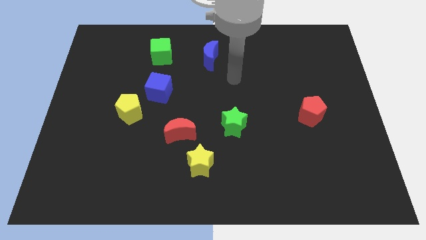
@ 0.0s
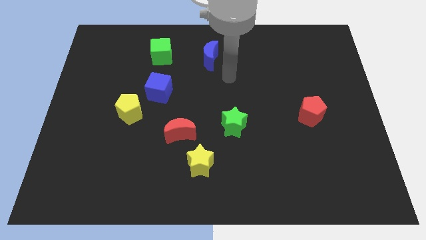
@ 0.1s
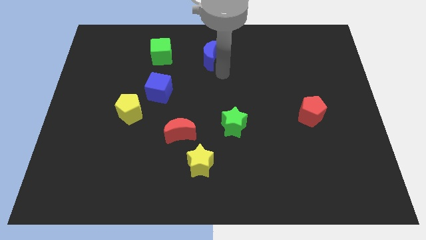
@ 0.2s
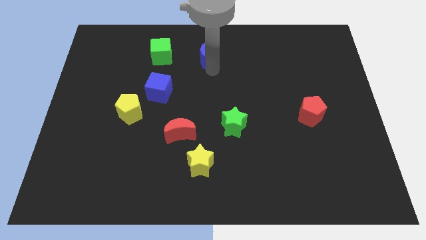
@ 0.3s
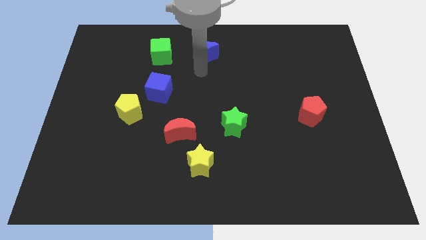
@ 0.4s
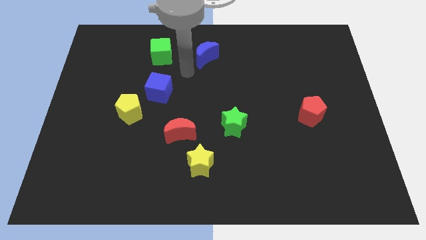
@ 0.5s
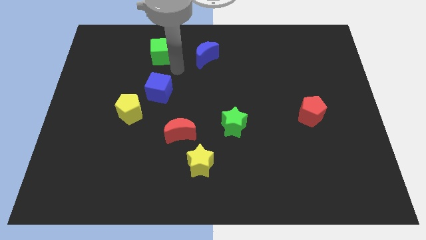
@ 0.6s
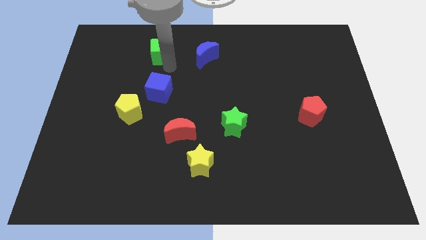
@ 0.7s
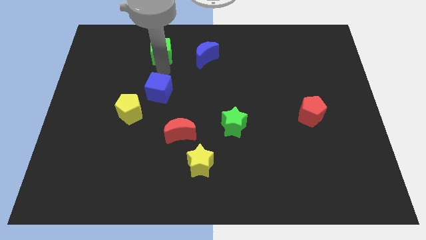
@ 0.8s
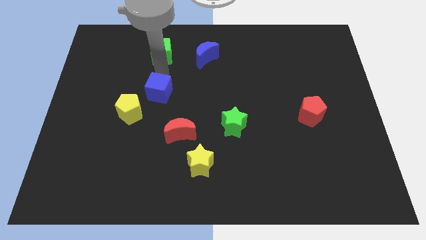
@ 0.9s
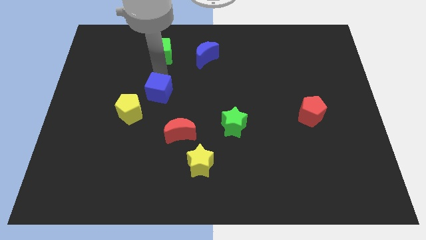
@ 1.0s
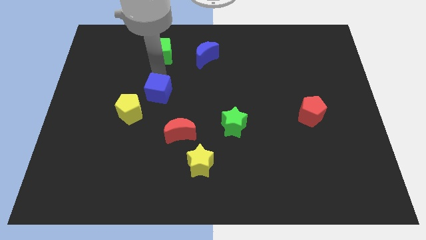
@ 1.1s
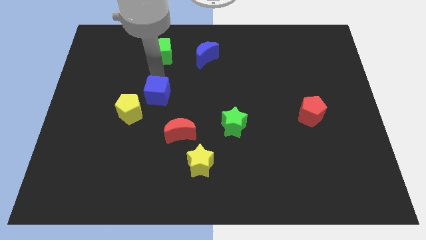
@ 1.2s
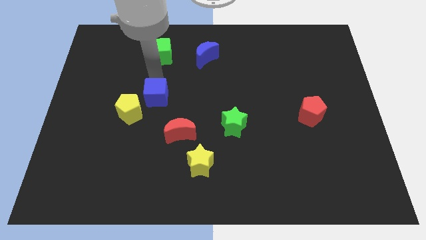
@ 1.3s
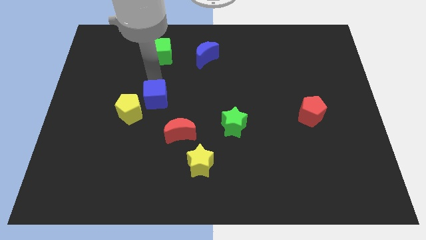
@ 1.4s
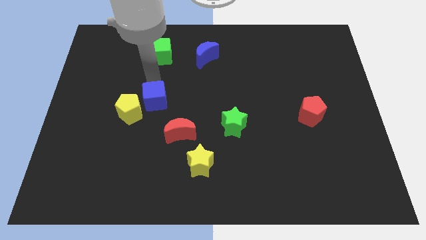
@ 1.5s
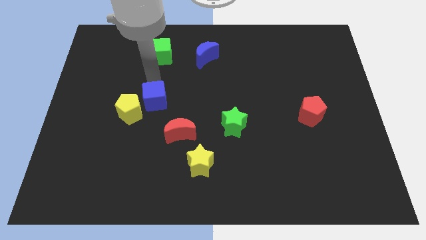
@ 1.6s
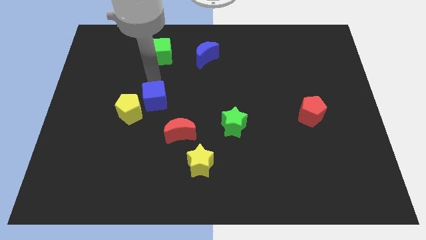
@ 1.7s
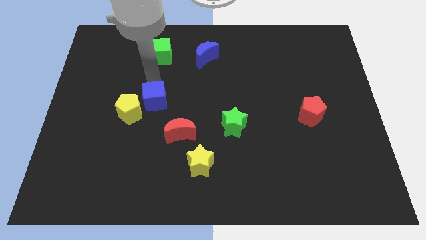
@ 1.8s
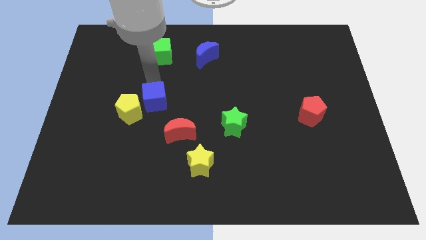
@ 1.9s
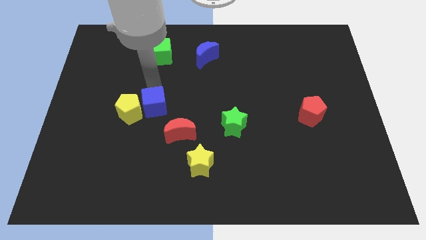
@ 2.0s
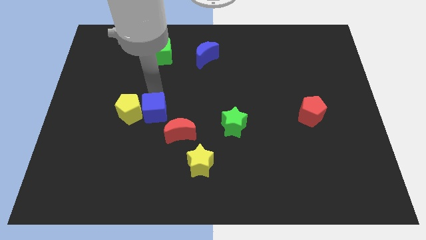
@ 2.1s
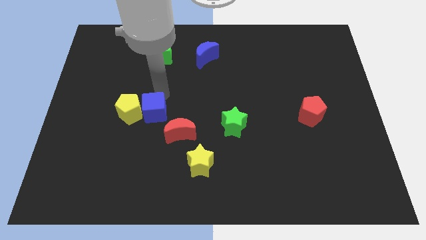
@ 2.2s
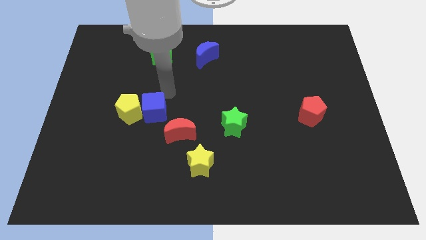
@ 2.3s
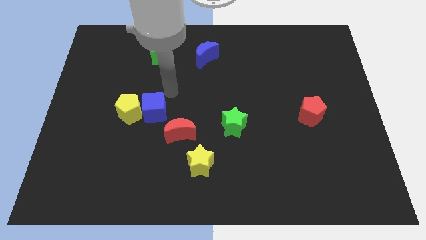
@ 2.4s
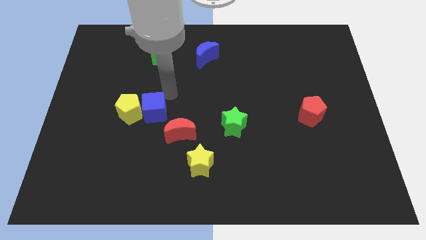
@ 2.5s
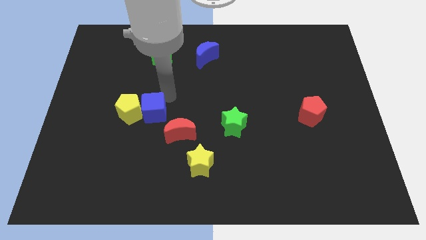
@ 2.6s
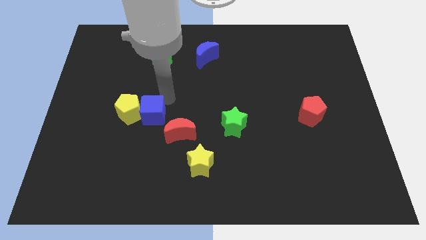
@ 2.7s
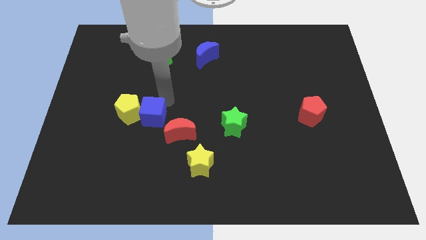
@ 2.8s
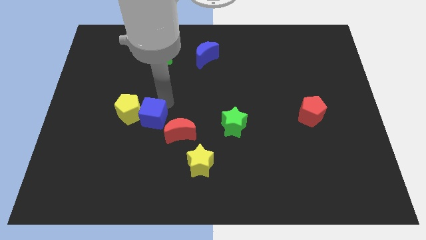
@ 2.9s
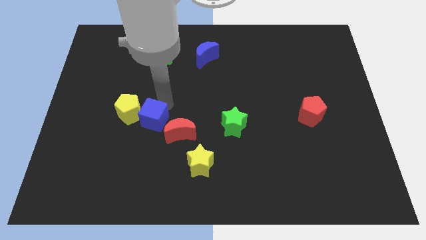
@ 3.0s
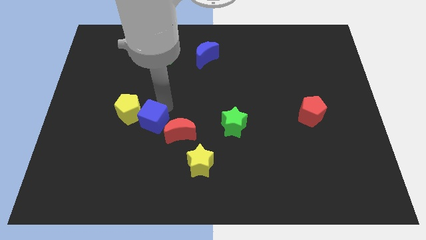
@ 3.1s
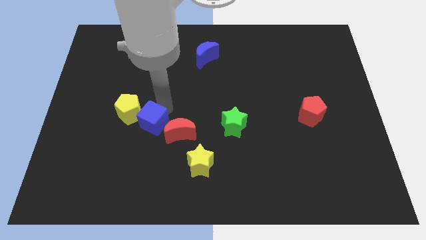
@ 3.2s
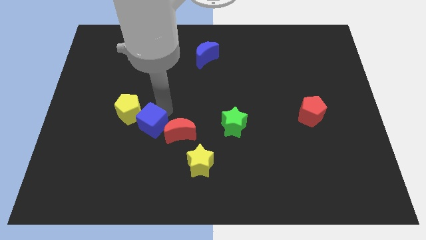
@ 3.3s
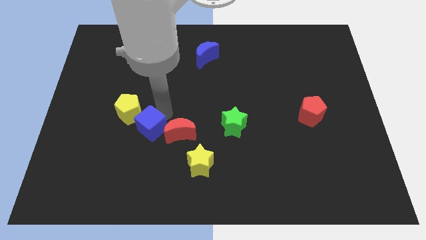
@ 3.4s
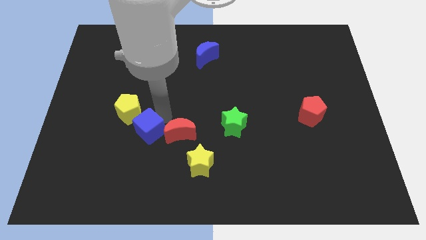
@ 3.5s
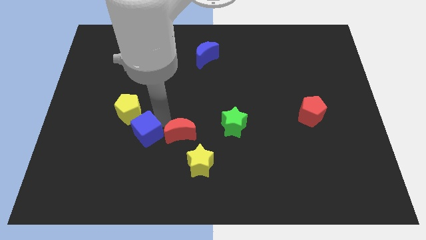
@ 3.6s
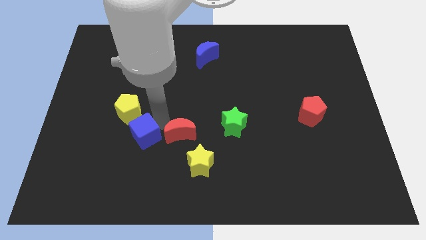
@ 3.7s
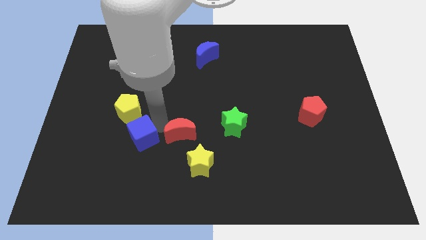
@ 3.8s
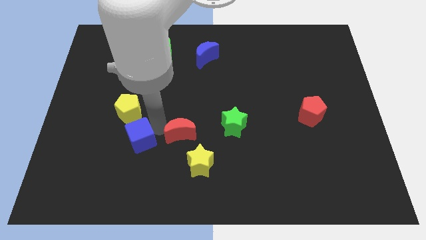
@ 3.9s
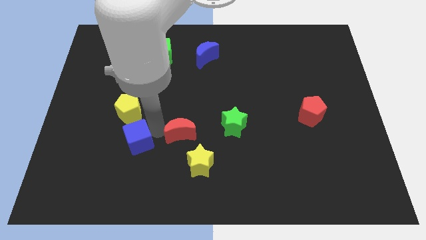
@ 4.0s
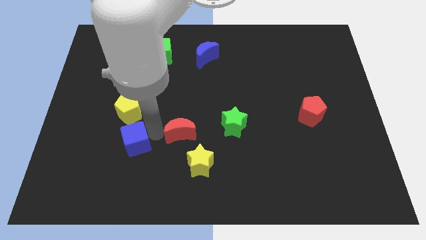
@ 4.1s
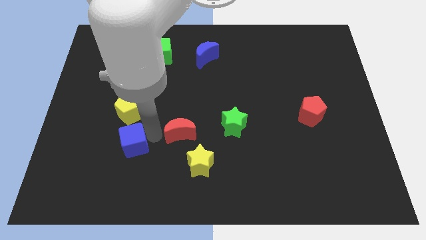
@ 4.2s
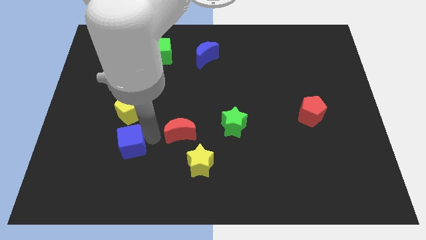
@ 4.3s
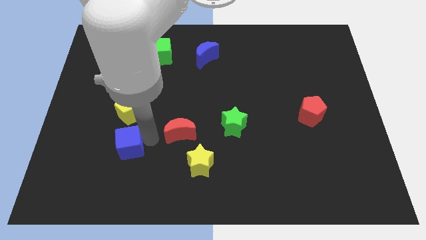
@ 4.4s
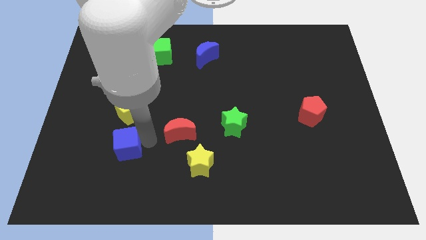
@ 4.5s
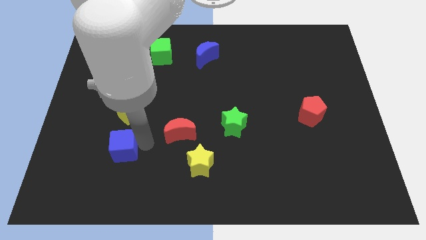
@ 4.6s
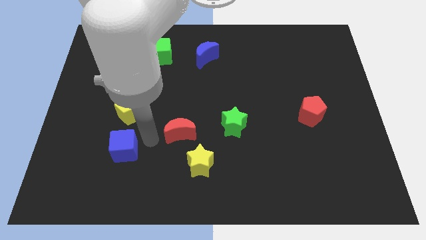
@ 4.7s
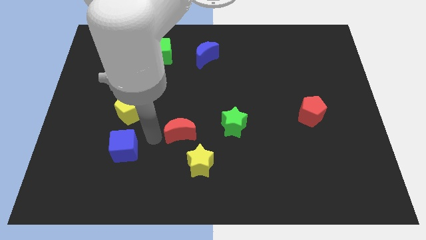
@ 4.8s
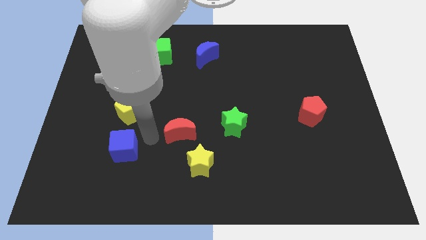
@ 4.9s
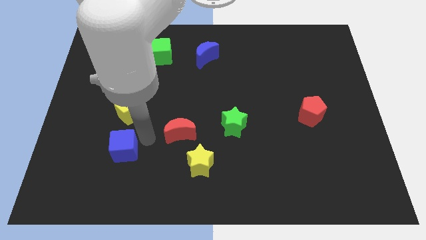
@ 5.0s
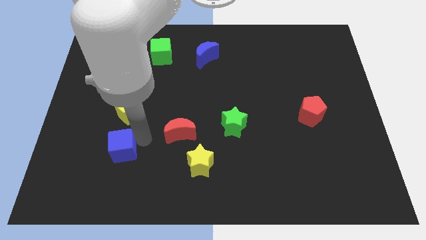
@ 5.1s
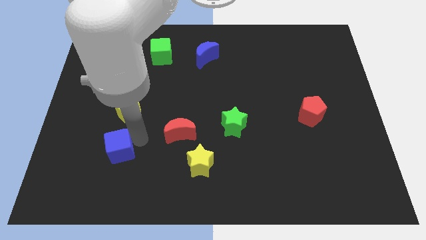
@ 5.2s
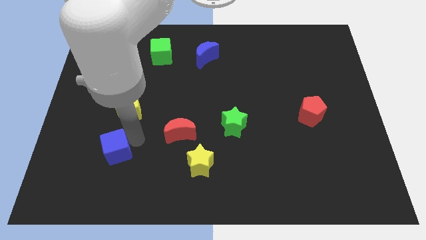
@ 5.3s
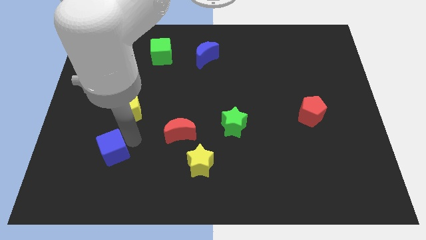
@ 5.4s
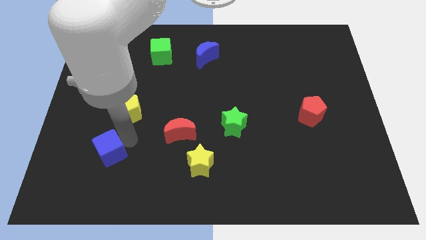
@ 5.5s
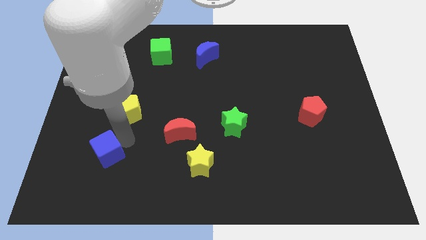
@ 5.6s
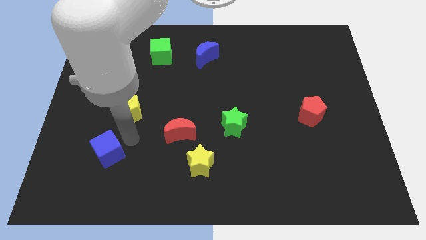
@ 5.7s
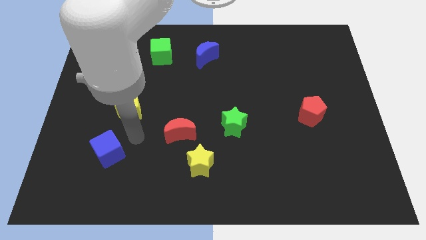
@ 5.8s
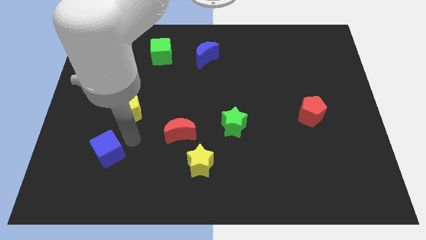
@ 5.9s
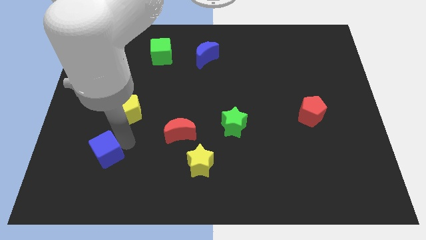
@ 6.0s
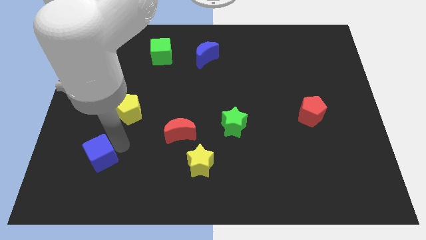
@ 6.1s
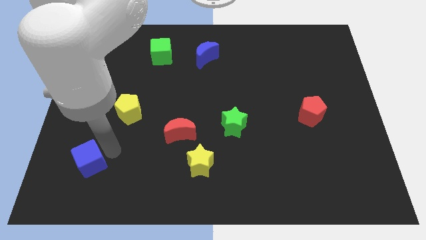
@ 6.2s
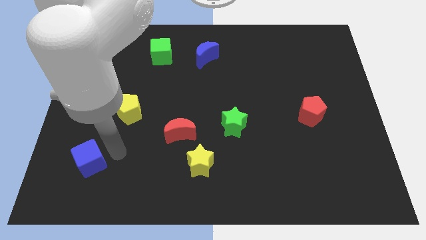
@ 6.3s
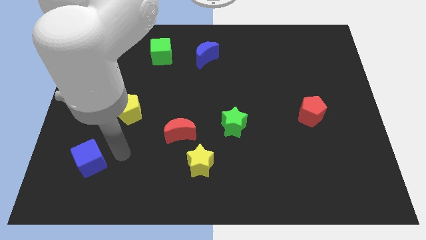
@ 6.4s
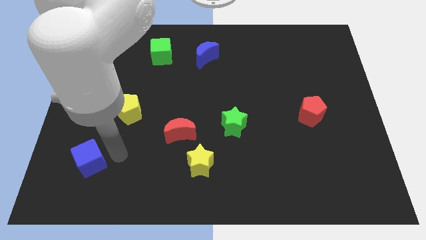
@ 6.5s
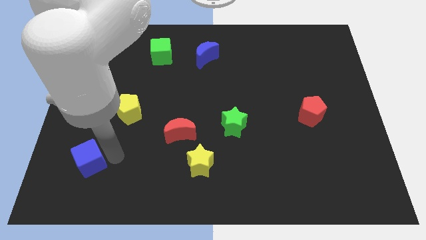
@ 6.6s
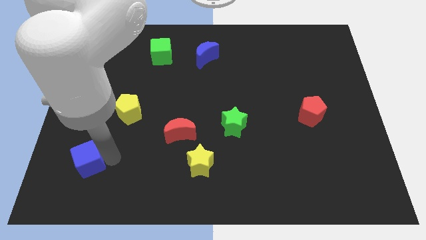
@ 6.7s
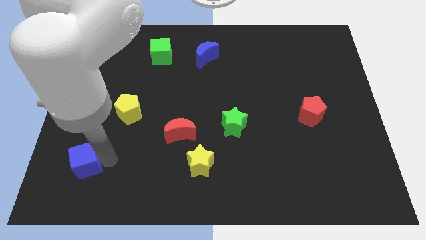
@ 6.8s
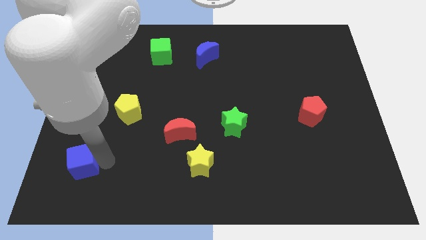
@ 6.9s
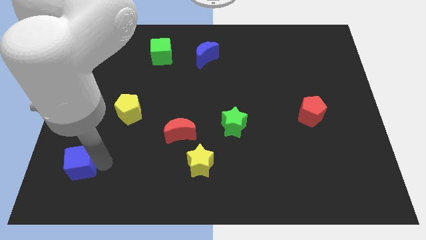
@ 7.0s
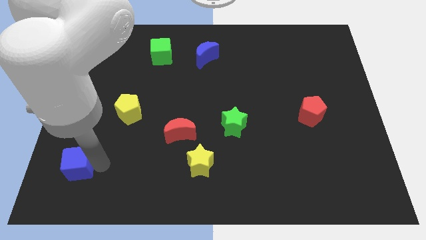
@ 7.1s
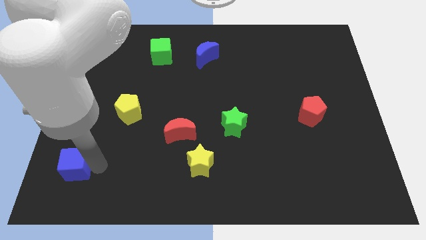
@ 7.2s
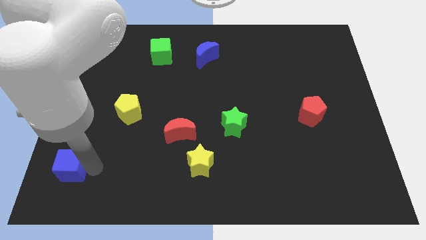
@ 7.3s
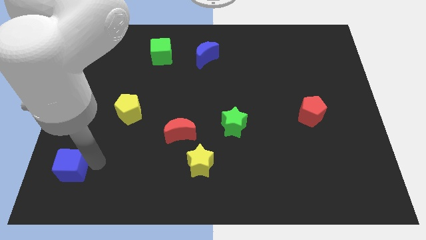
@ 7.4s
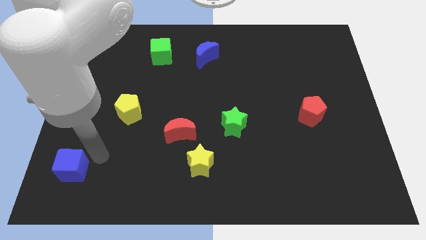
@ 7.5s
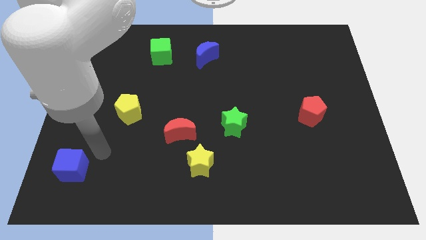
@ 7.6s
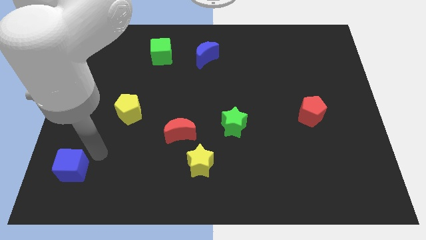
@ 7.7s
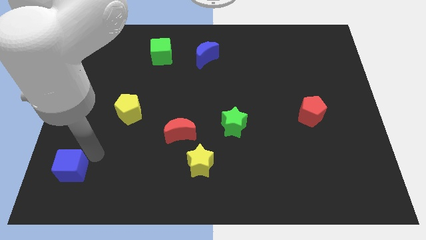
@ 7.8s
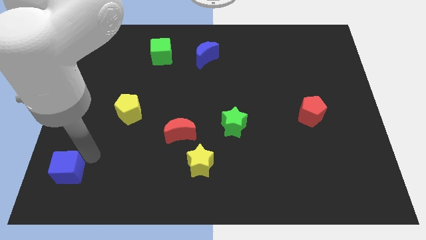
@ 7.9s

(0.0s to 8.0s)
push the blue cube to the lower left corner
